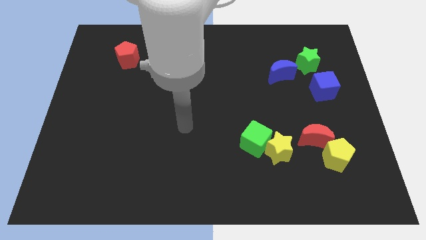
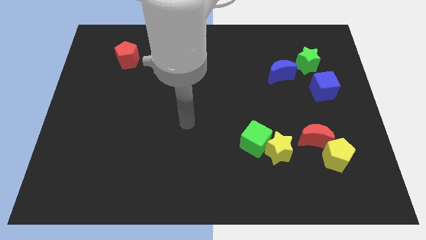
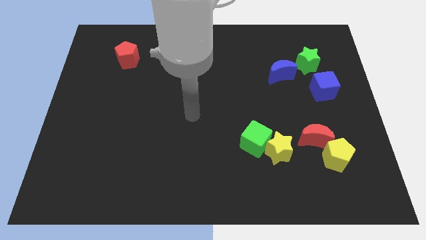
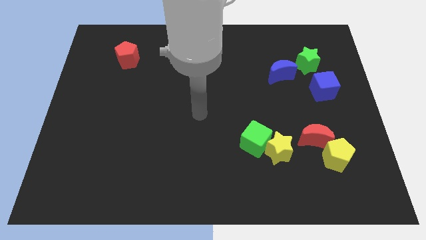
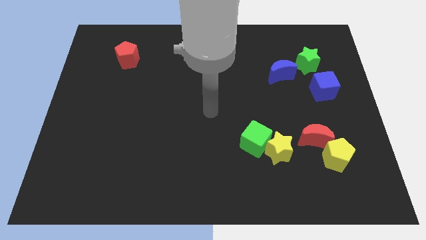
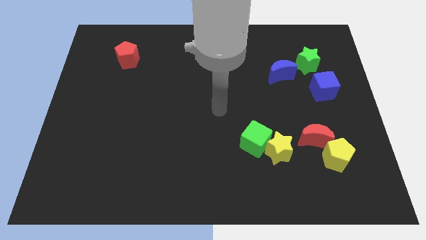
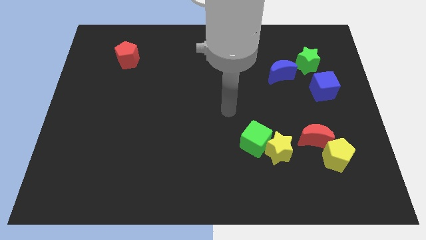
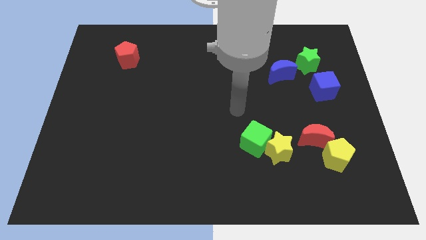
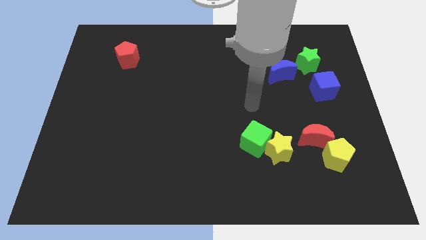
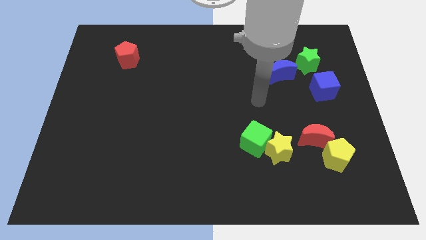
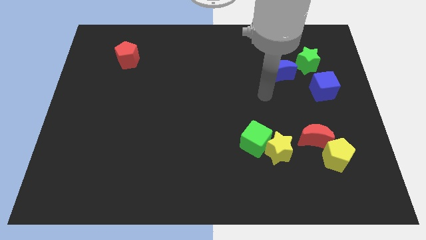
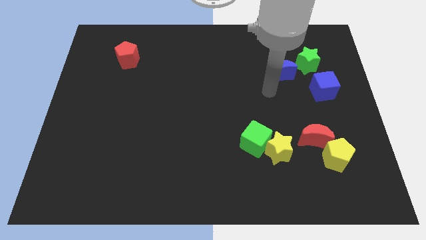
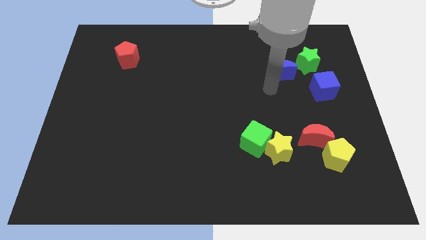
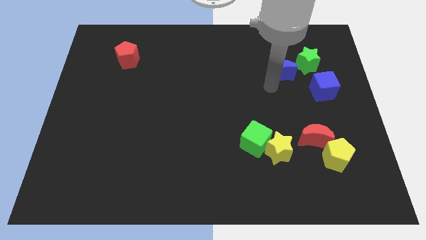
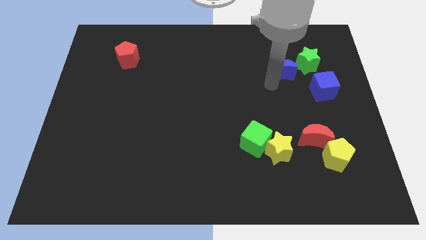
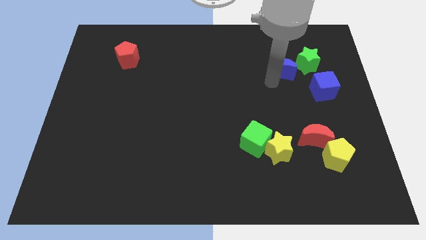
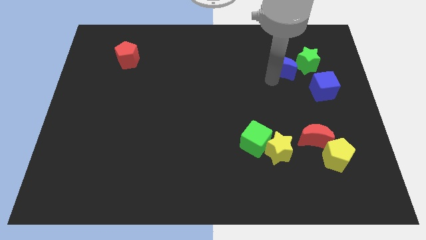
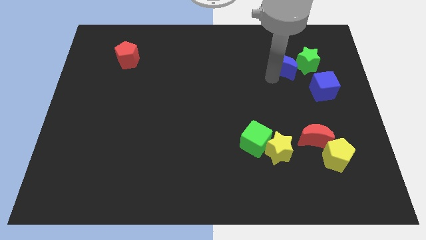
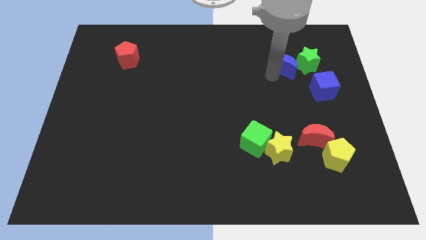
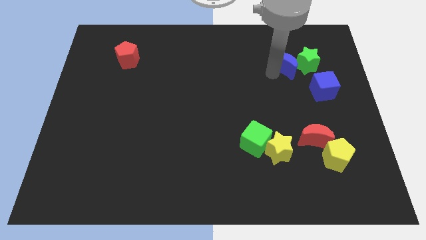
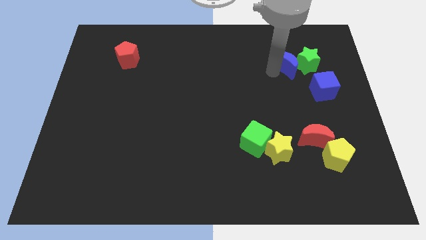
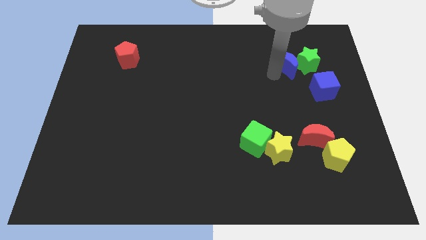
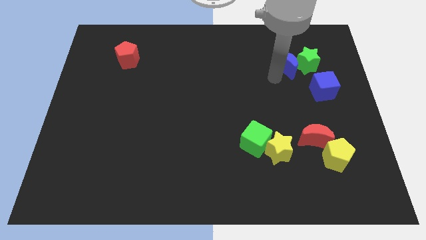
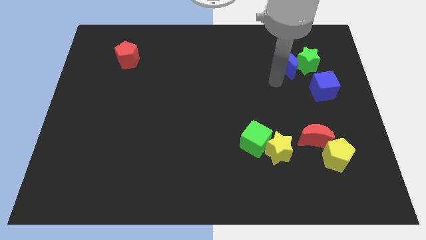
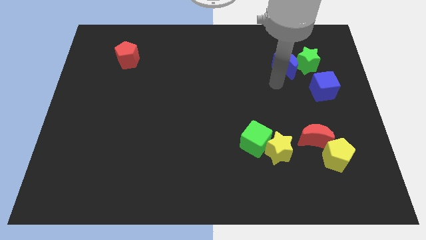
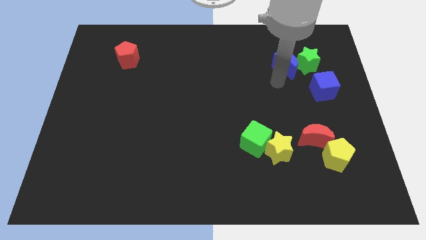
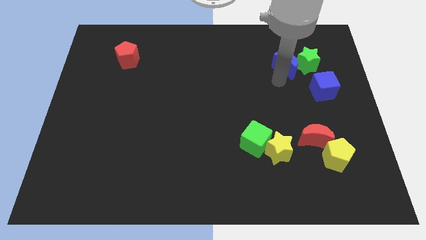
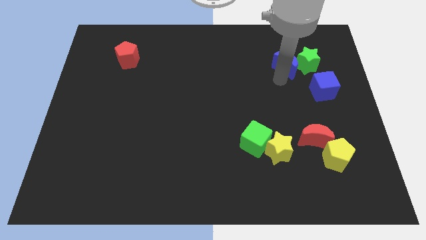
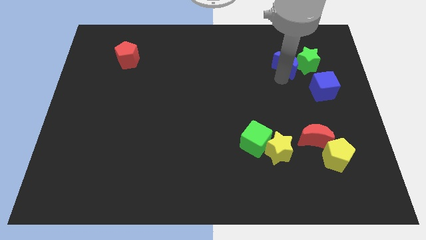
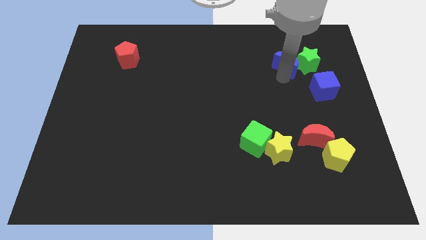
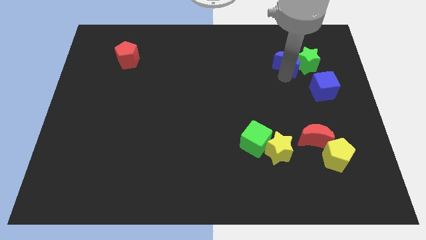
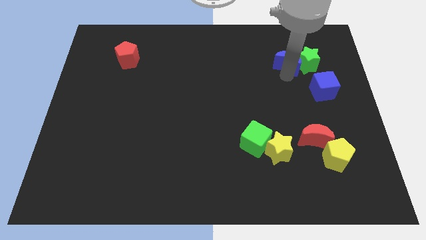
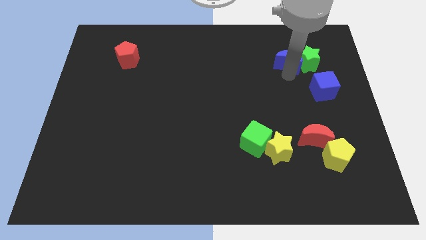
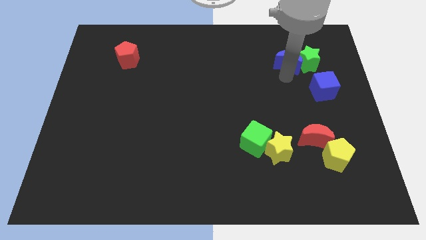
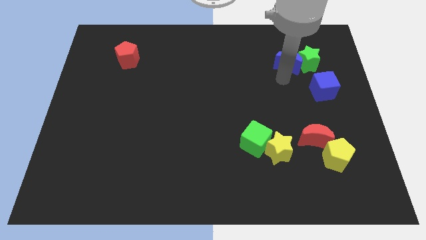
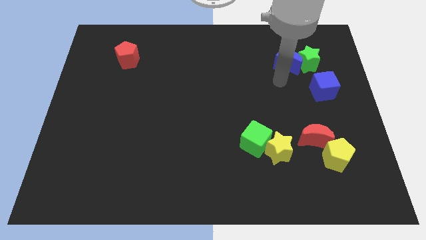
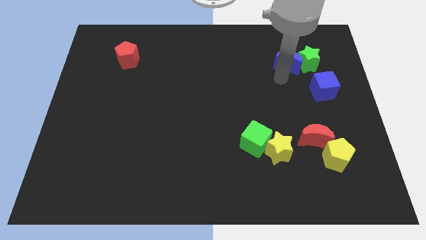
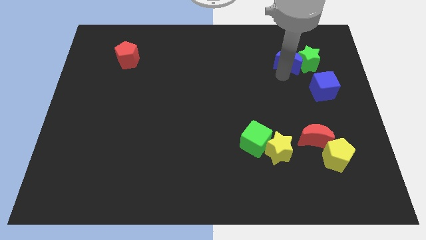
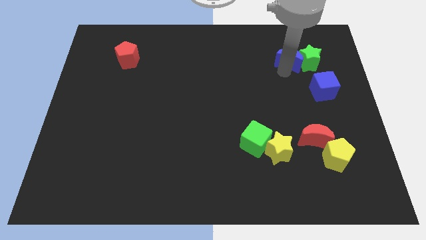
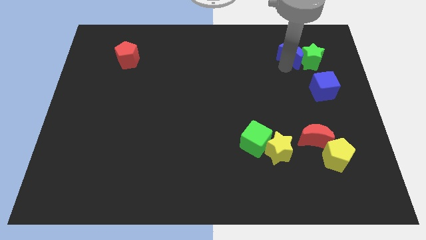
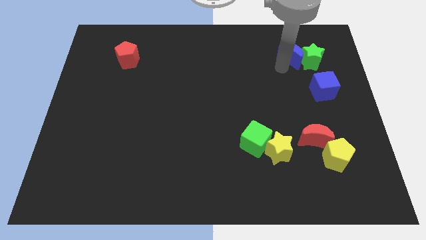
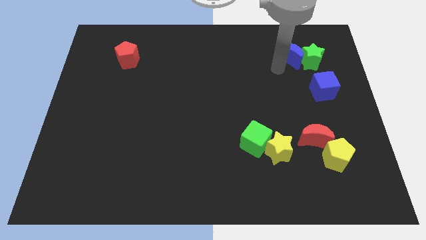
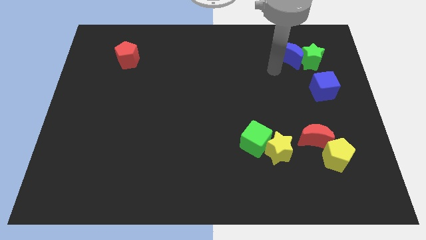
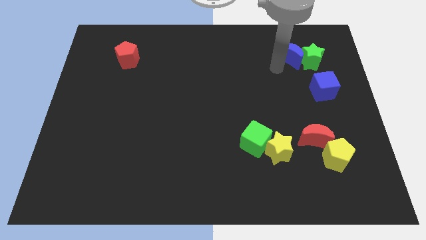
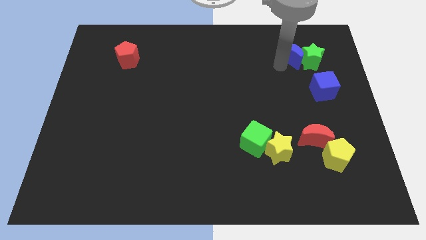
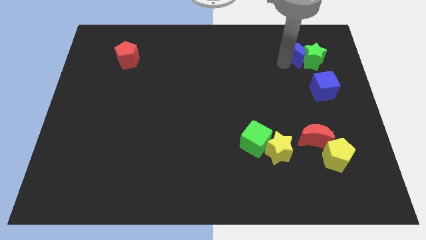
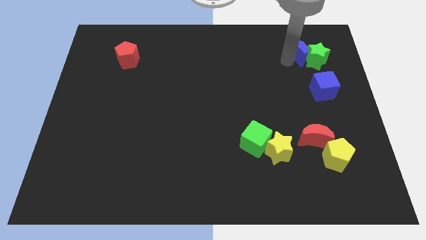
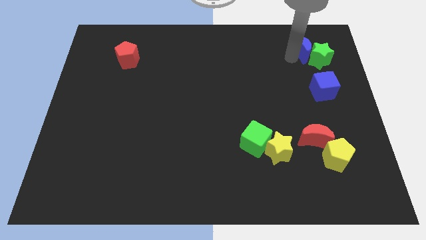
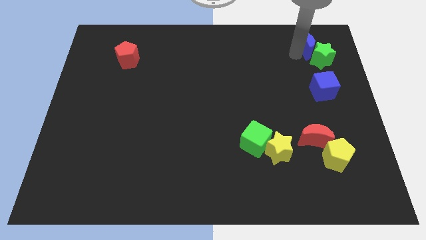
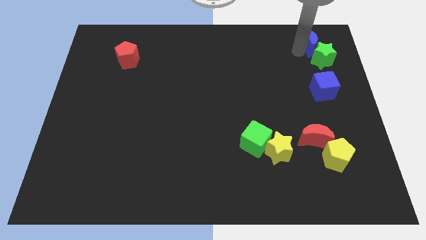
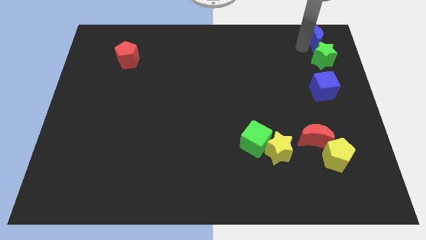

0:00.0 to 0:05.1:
put the blue moon to the top right corner
